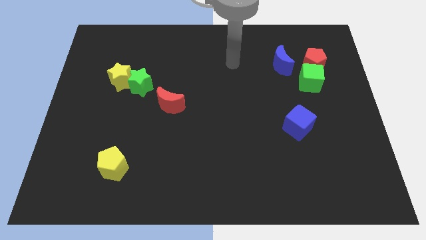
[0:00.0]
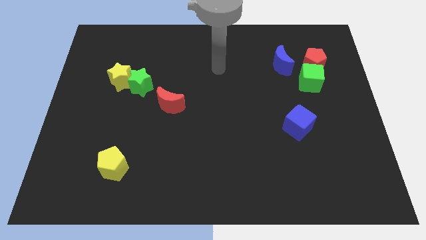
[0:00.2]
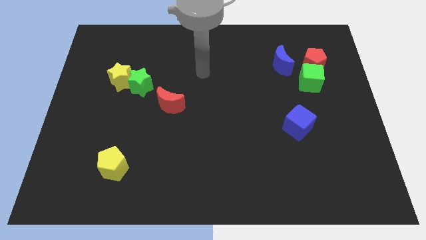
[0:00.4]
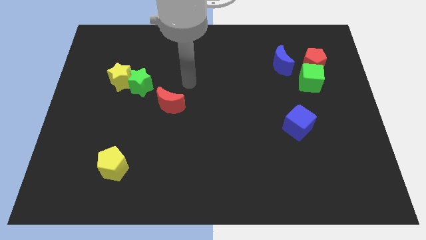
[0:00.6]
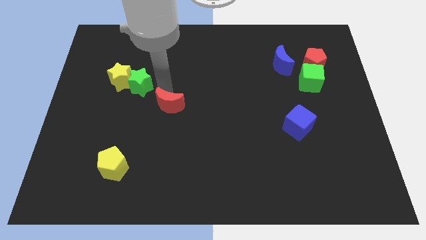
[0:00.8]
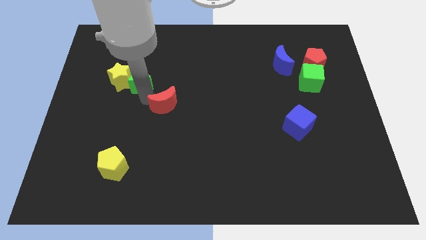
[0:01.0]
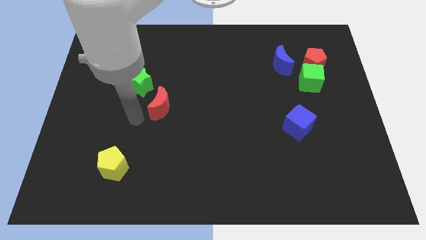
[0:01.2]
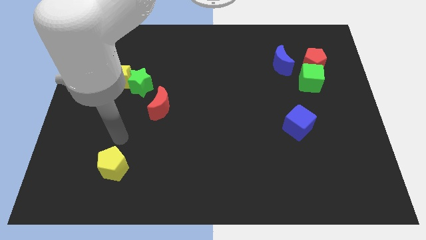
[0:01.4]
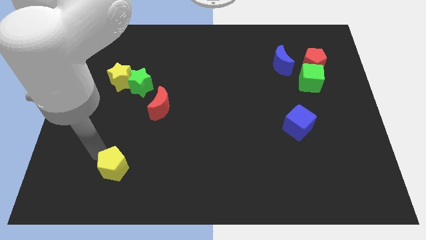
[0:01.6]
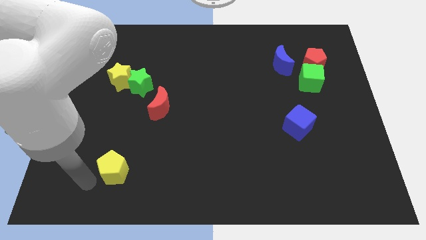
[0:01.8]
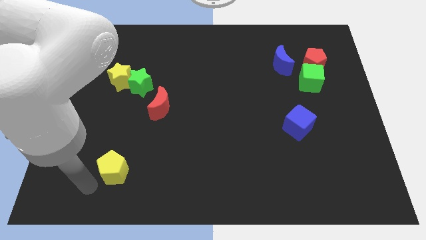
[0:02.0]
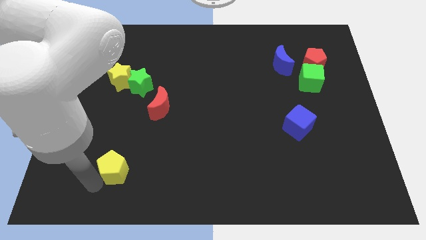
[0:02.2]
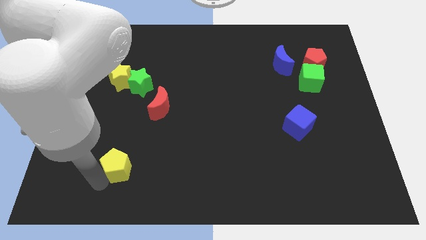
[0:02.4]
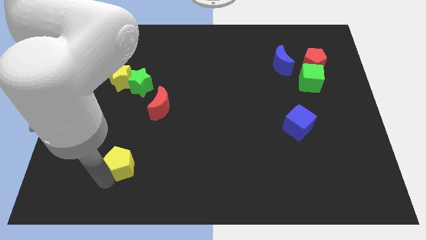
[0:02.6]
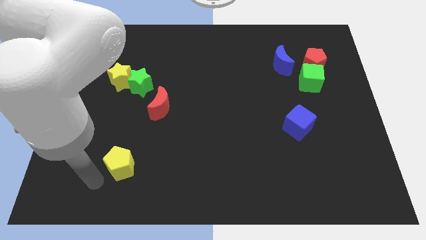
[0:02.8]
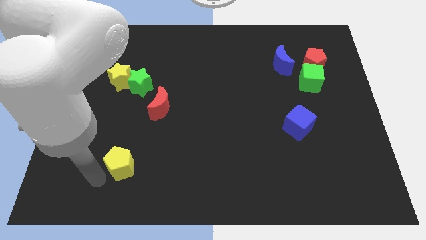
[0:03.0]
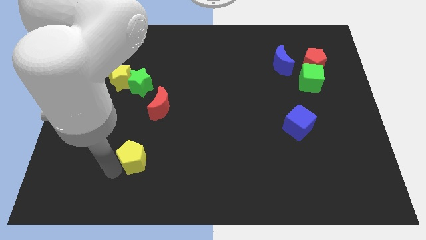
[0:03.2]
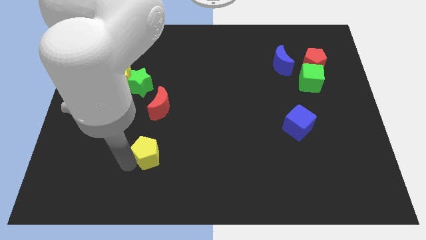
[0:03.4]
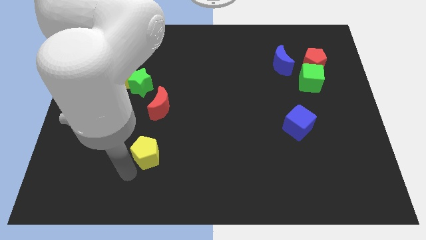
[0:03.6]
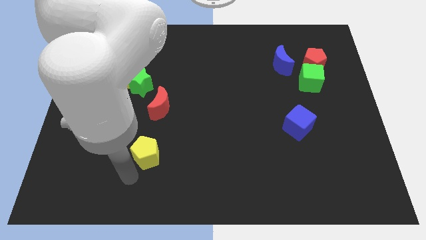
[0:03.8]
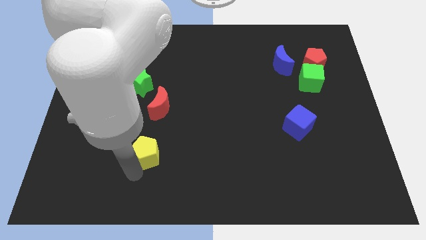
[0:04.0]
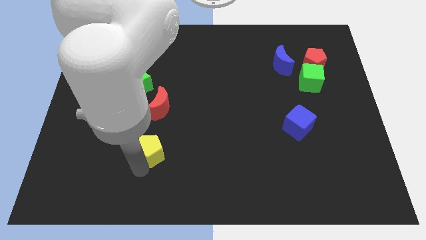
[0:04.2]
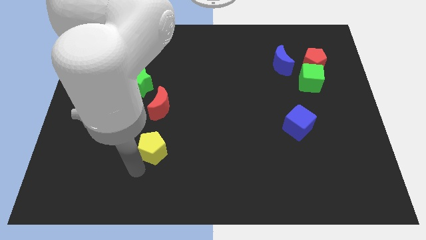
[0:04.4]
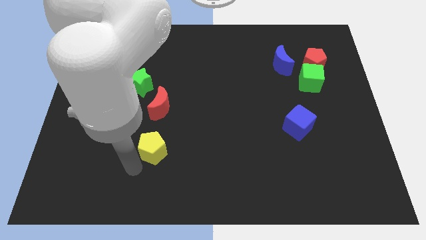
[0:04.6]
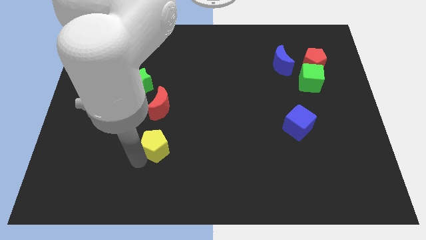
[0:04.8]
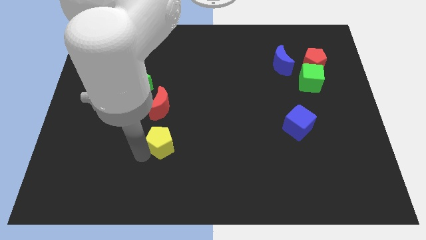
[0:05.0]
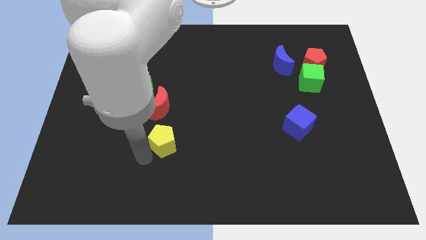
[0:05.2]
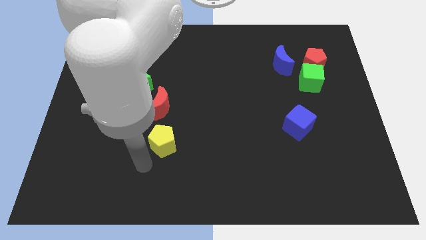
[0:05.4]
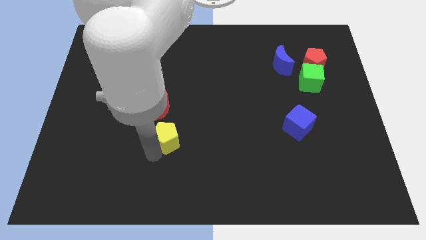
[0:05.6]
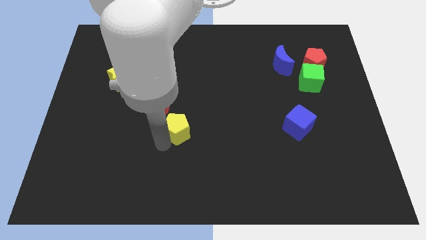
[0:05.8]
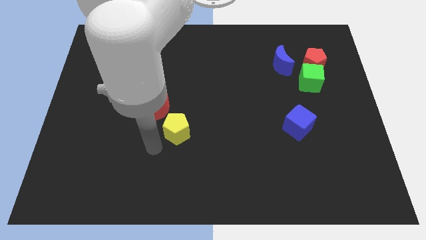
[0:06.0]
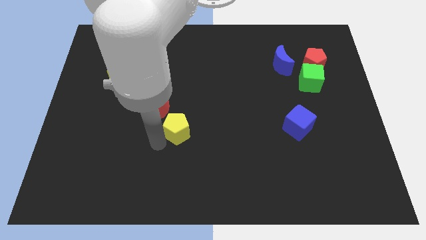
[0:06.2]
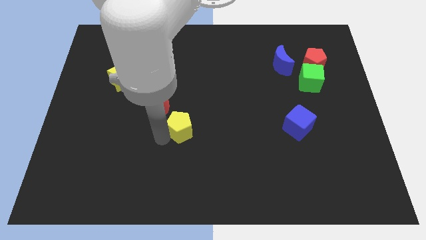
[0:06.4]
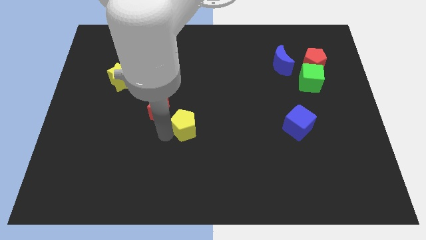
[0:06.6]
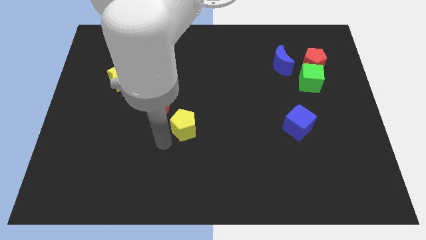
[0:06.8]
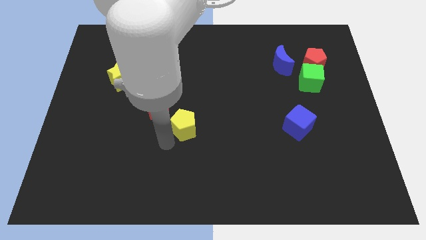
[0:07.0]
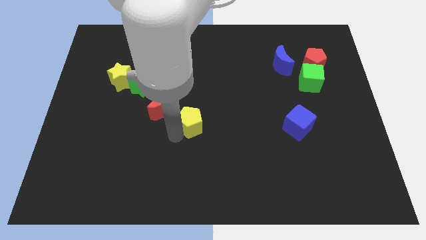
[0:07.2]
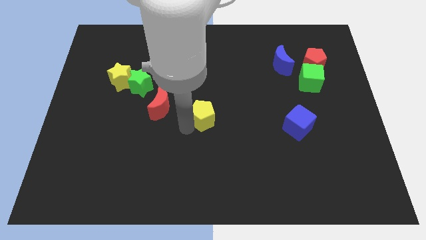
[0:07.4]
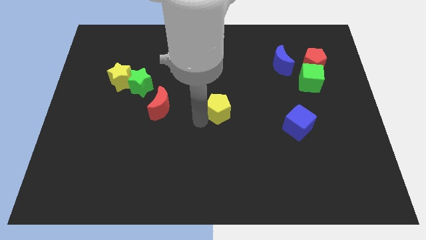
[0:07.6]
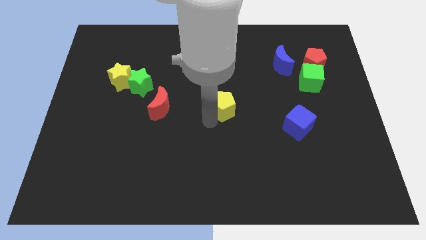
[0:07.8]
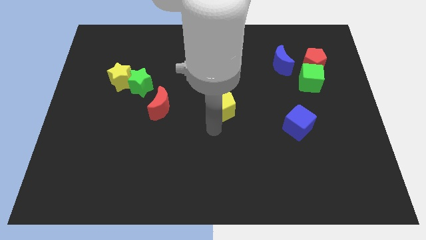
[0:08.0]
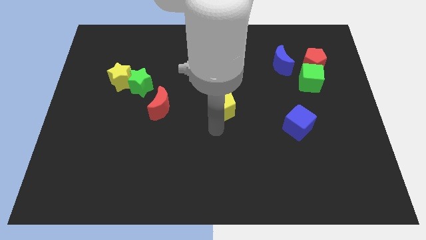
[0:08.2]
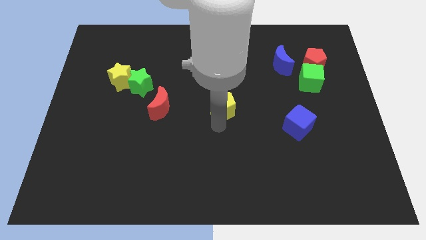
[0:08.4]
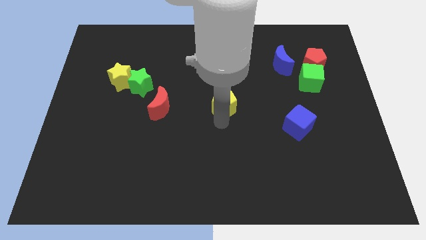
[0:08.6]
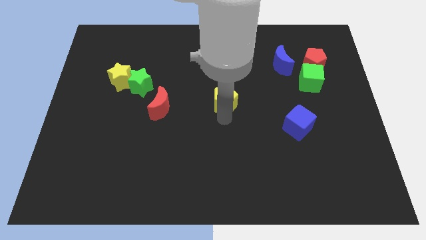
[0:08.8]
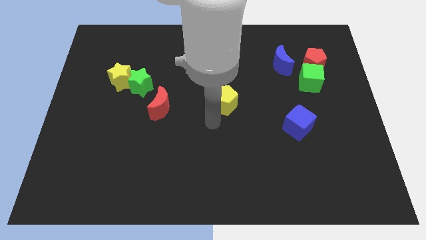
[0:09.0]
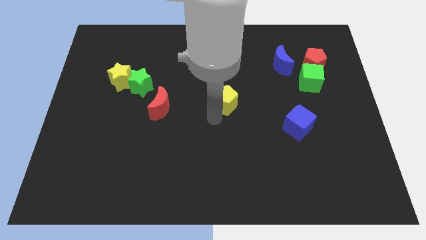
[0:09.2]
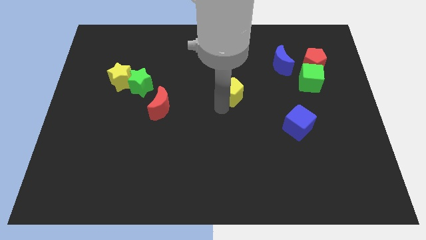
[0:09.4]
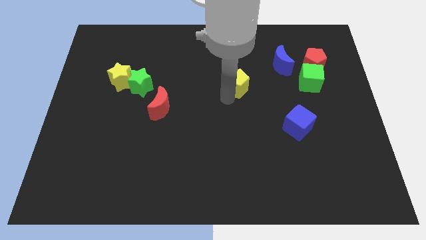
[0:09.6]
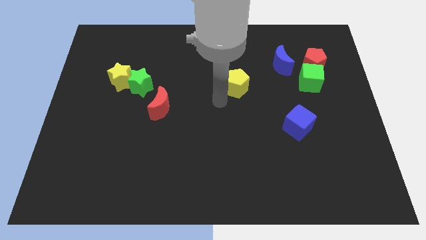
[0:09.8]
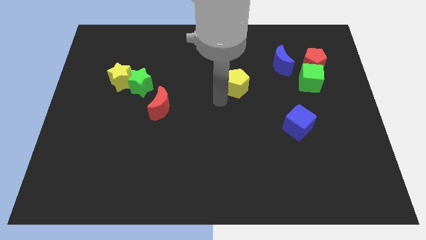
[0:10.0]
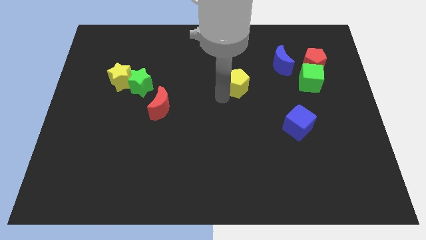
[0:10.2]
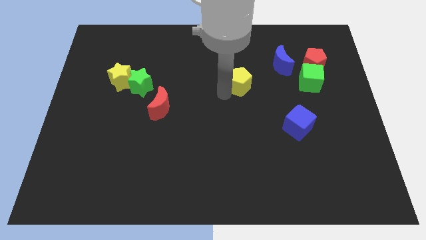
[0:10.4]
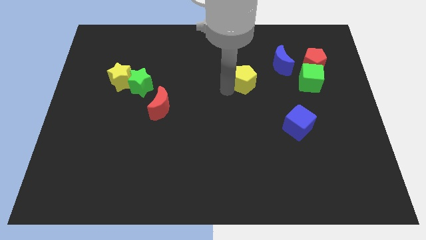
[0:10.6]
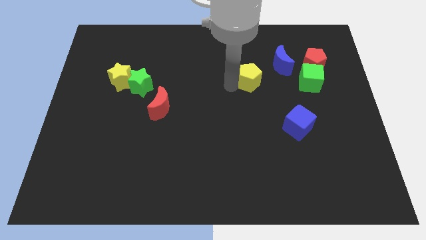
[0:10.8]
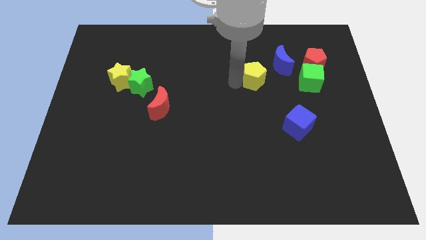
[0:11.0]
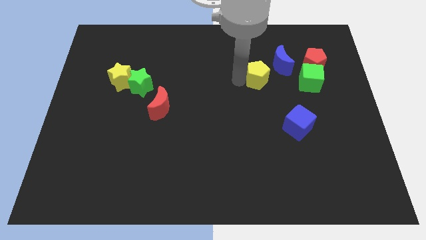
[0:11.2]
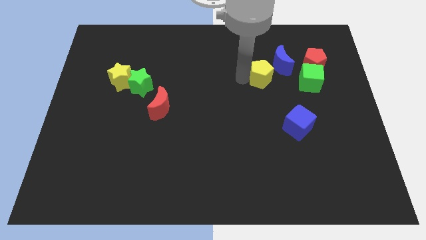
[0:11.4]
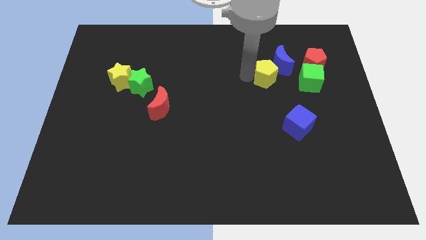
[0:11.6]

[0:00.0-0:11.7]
slide the yellow pentagon close to the blue moon

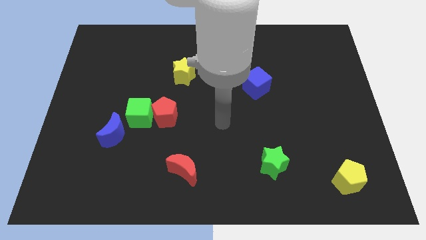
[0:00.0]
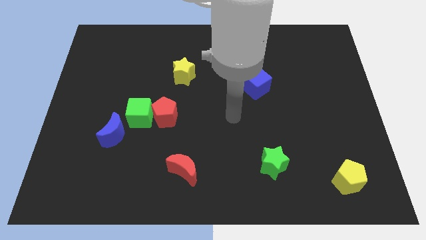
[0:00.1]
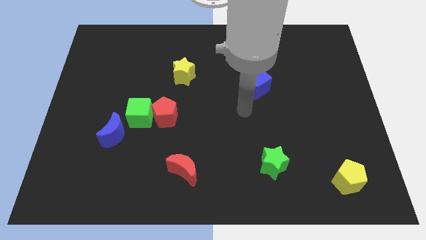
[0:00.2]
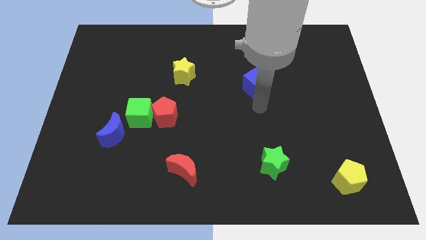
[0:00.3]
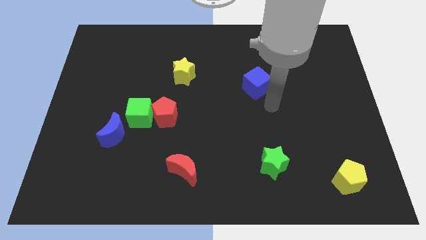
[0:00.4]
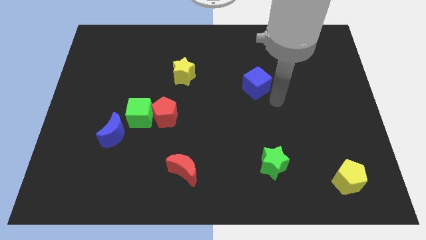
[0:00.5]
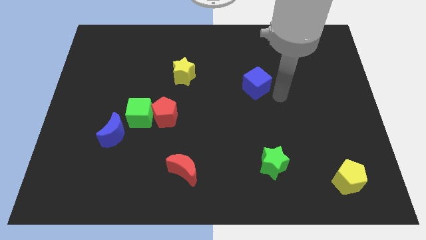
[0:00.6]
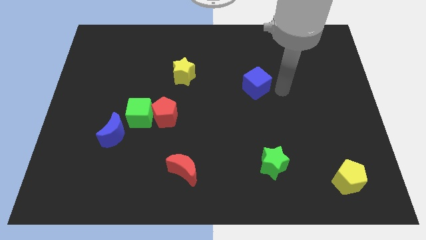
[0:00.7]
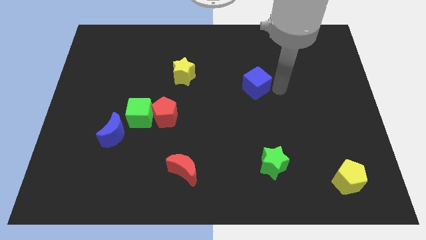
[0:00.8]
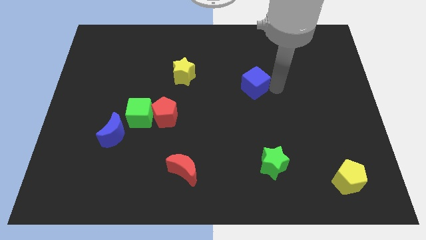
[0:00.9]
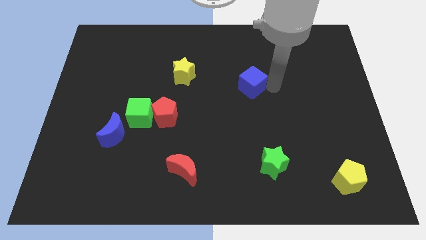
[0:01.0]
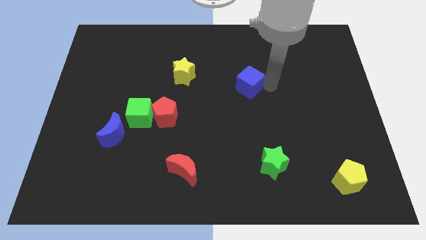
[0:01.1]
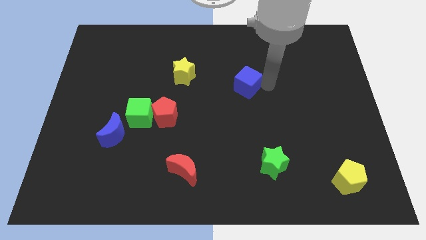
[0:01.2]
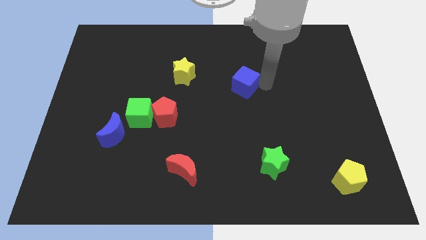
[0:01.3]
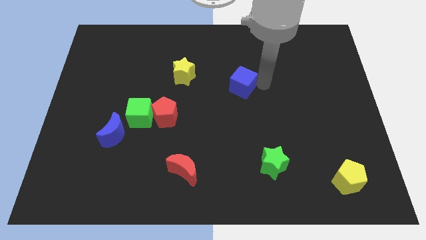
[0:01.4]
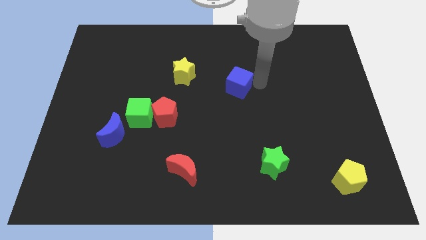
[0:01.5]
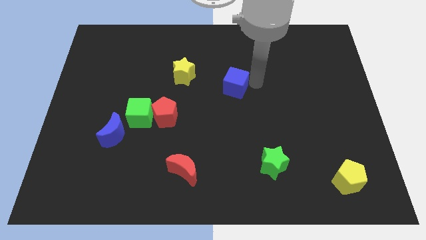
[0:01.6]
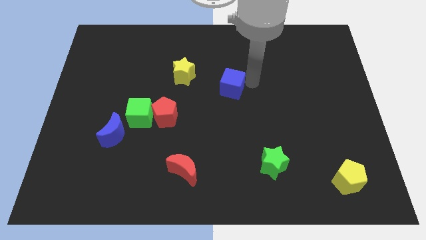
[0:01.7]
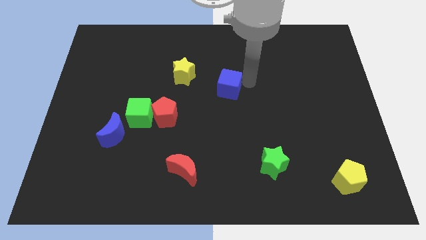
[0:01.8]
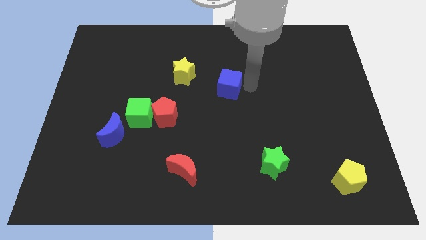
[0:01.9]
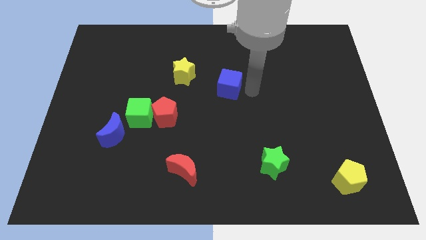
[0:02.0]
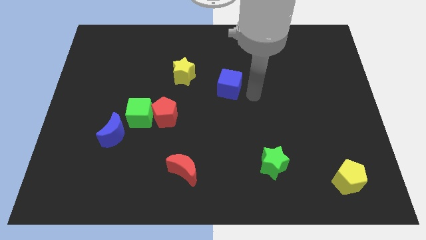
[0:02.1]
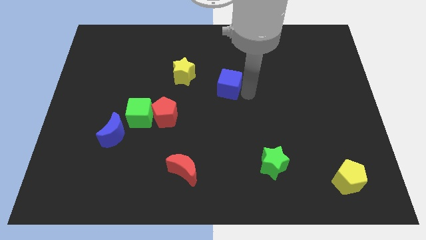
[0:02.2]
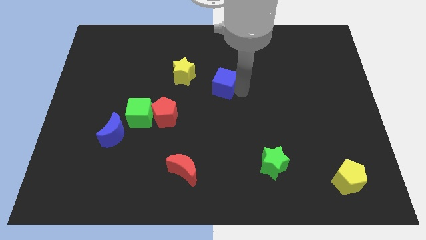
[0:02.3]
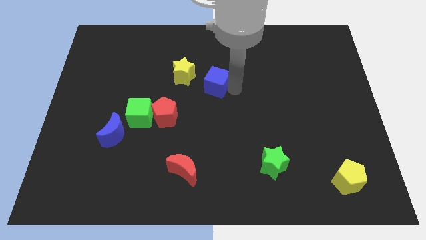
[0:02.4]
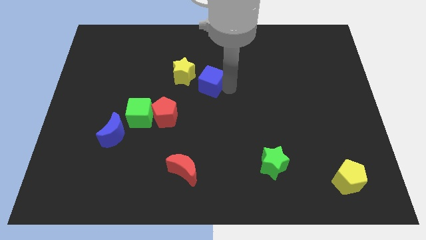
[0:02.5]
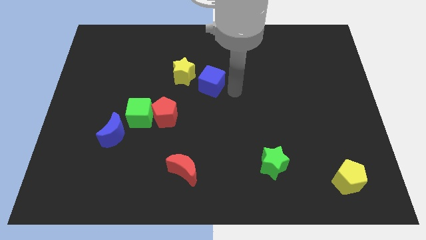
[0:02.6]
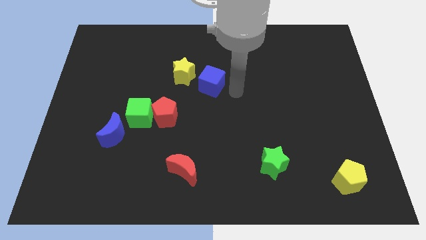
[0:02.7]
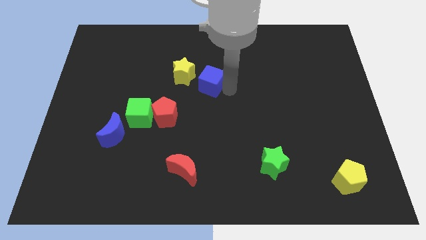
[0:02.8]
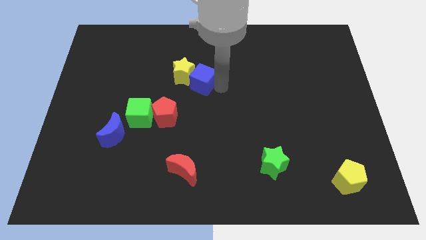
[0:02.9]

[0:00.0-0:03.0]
slide the blue cube to the yellow star
